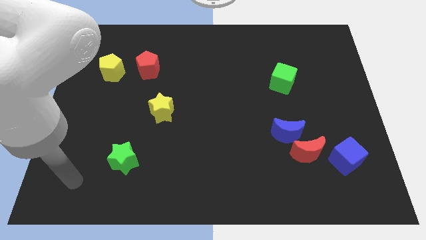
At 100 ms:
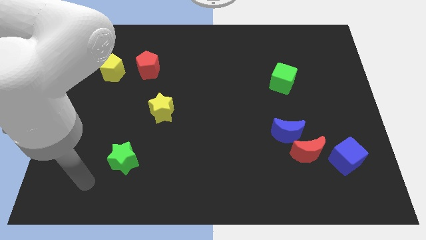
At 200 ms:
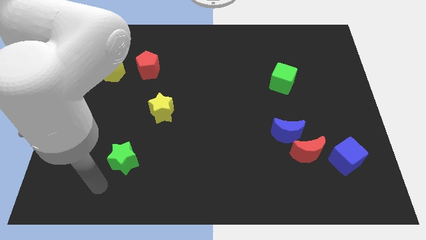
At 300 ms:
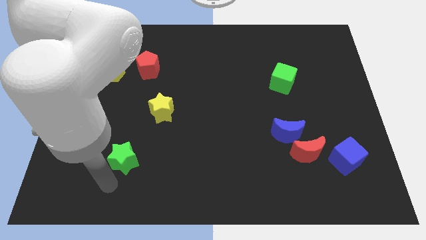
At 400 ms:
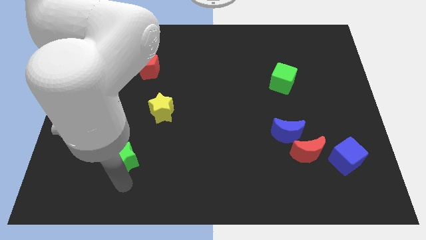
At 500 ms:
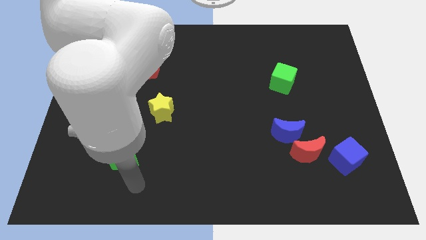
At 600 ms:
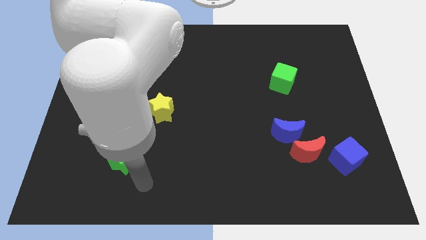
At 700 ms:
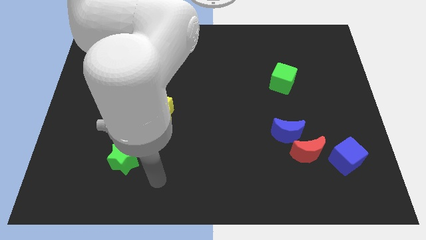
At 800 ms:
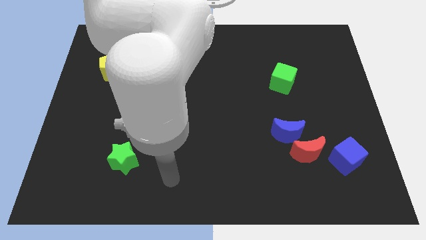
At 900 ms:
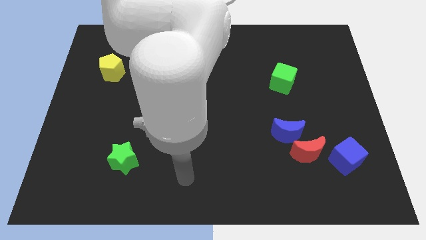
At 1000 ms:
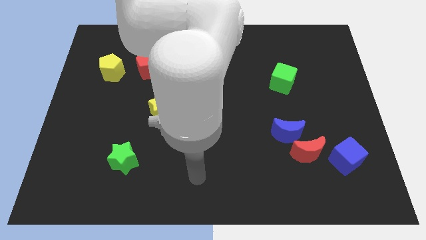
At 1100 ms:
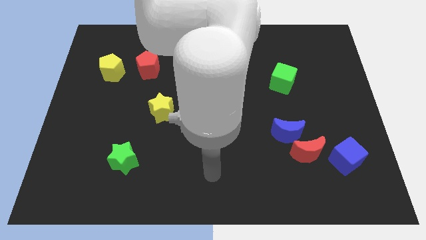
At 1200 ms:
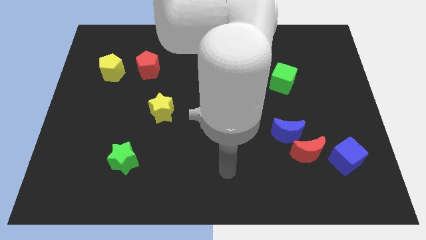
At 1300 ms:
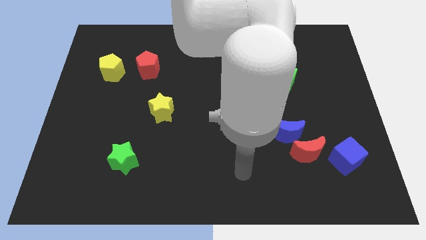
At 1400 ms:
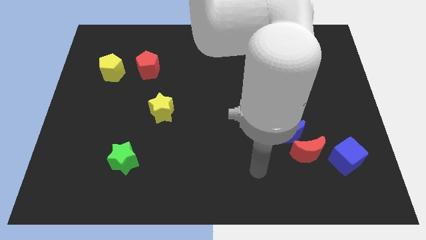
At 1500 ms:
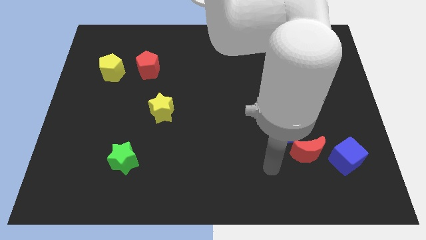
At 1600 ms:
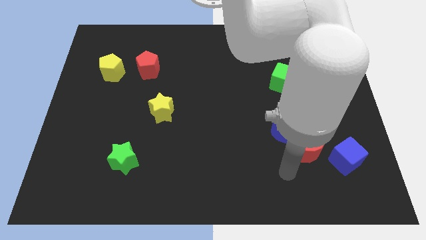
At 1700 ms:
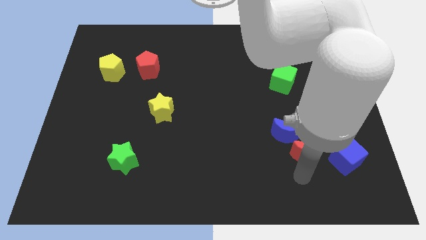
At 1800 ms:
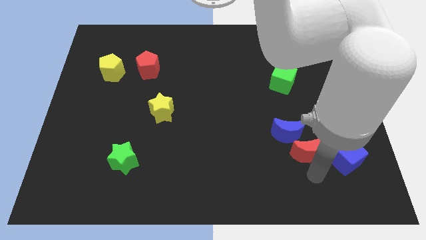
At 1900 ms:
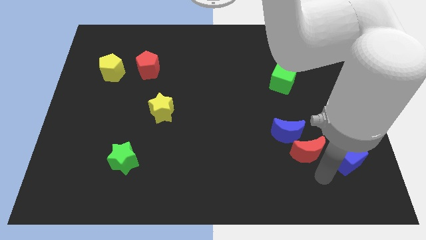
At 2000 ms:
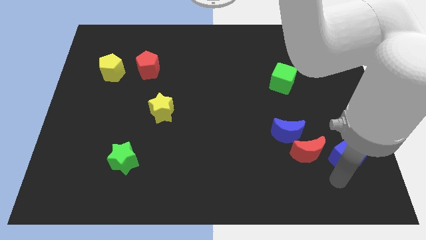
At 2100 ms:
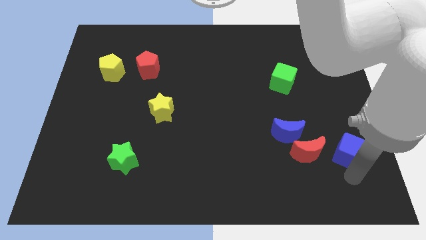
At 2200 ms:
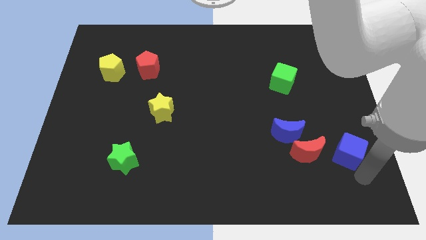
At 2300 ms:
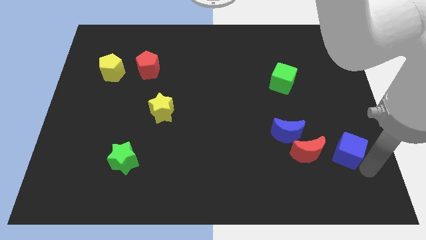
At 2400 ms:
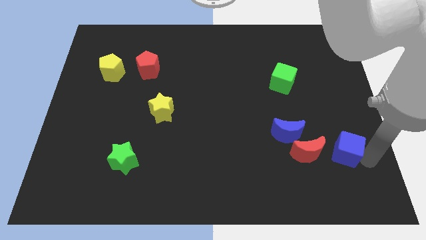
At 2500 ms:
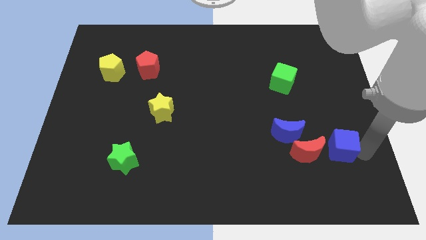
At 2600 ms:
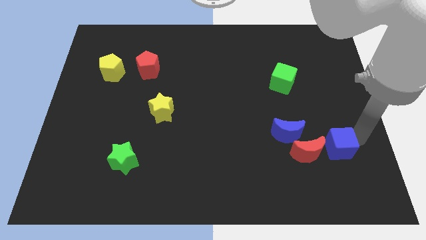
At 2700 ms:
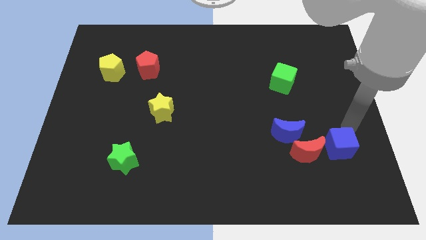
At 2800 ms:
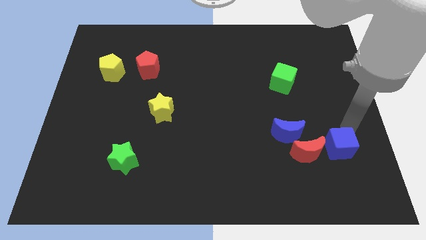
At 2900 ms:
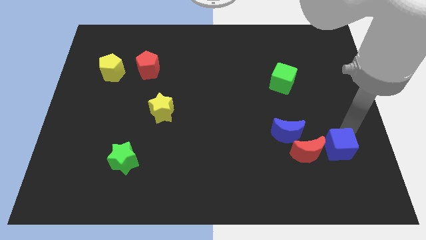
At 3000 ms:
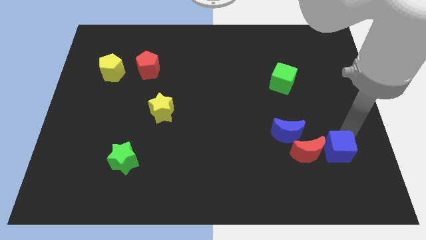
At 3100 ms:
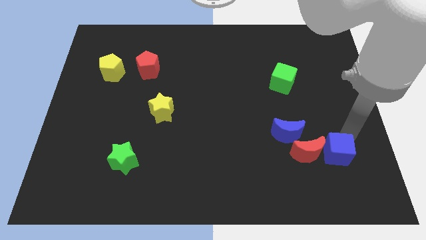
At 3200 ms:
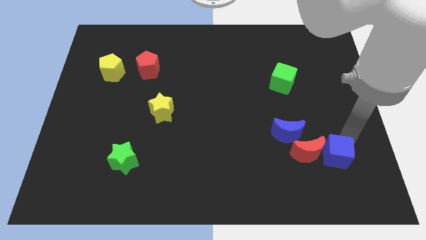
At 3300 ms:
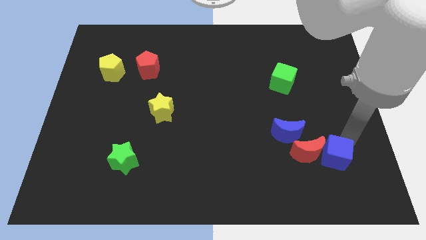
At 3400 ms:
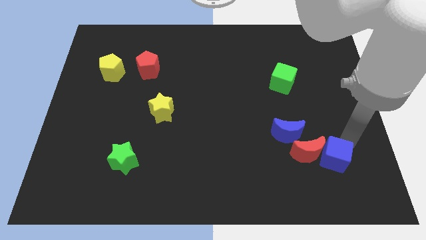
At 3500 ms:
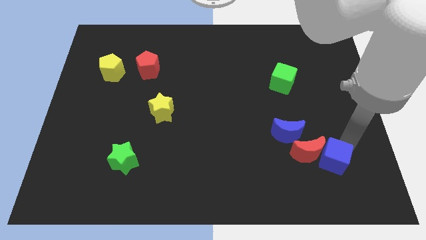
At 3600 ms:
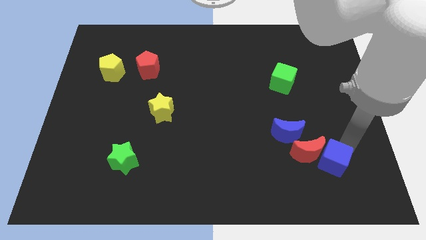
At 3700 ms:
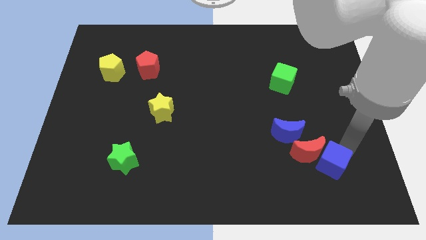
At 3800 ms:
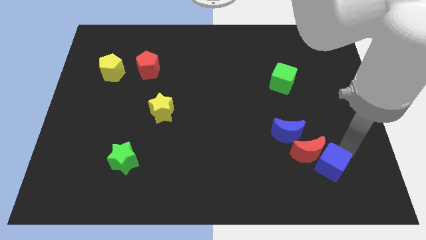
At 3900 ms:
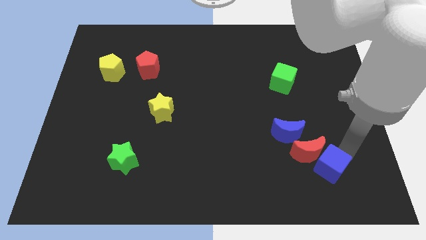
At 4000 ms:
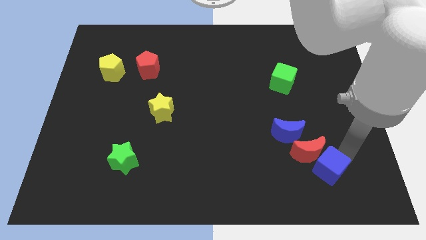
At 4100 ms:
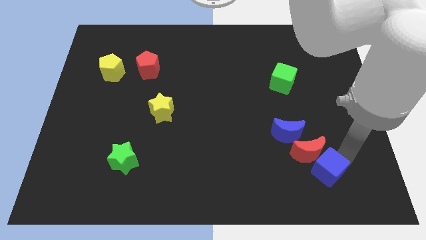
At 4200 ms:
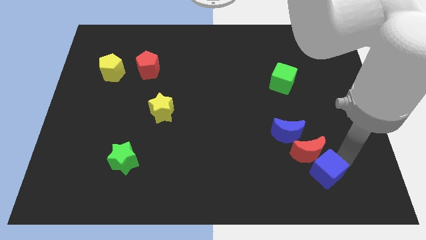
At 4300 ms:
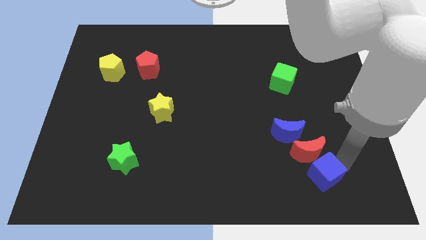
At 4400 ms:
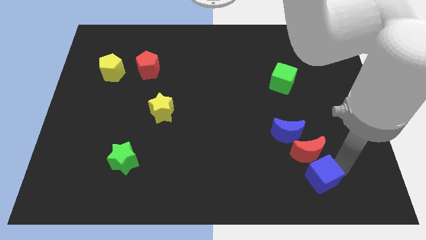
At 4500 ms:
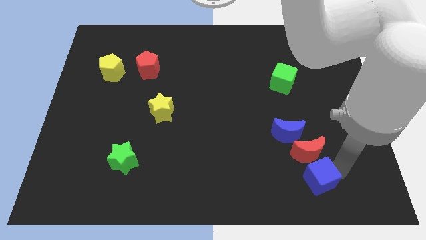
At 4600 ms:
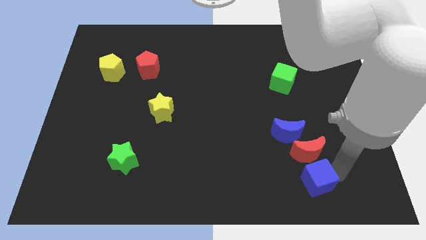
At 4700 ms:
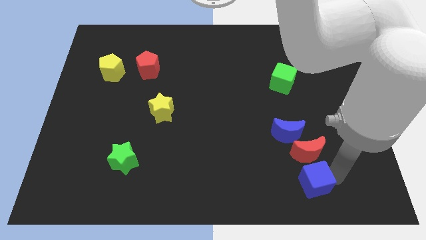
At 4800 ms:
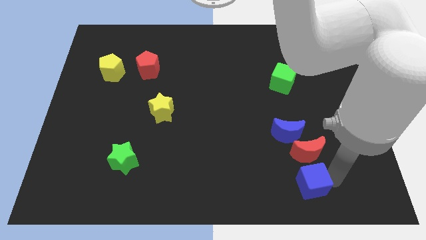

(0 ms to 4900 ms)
push the blue cube to the left a little

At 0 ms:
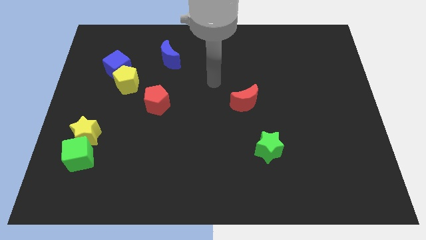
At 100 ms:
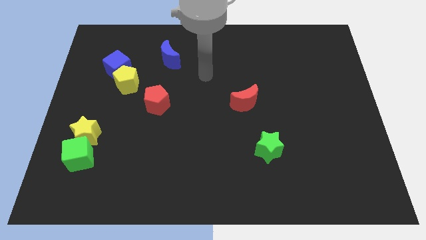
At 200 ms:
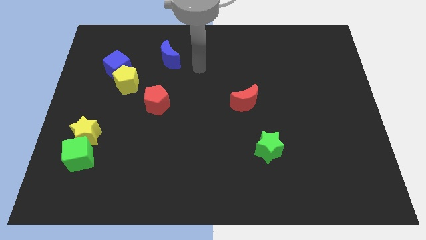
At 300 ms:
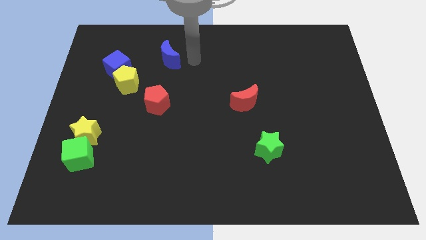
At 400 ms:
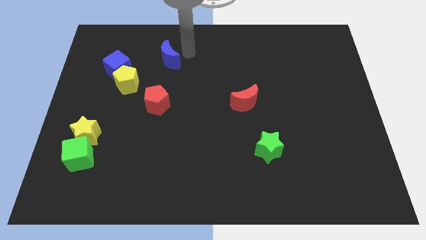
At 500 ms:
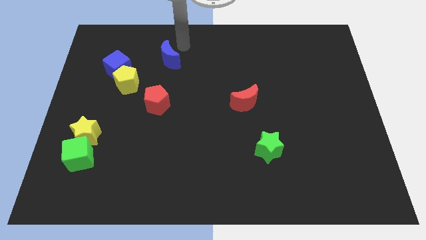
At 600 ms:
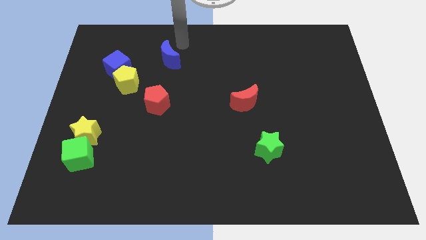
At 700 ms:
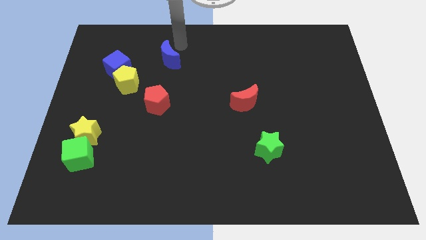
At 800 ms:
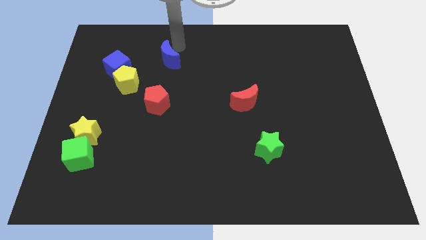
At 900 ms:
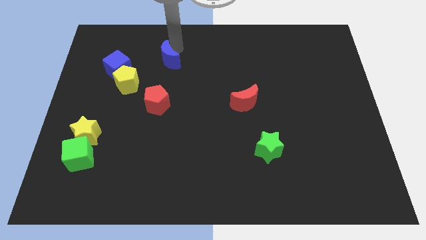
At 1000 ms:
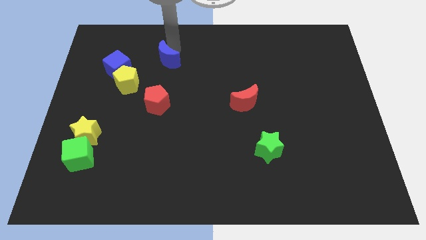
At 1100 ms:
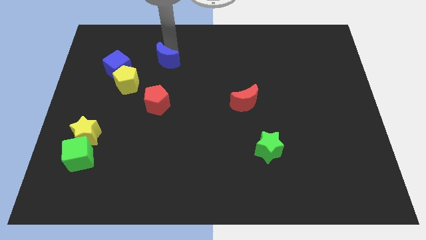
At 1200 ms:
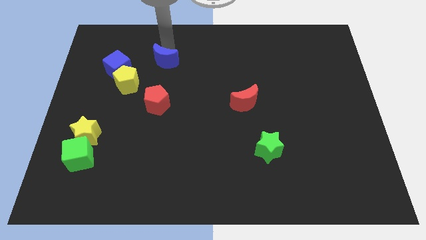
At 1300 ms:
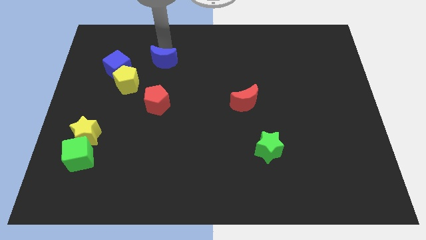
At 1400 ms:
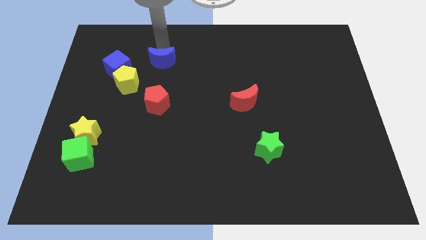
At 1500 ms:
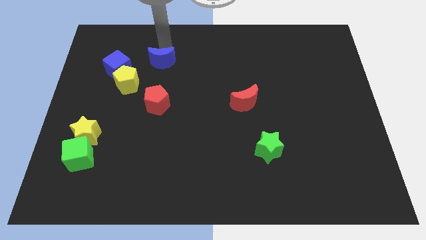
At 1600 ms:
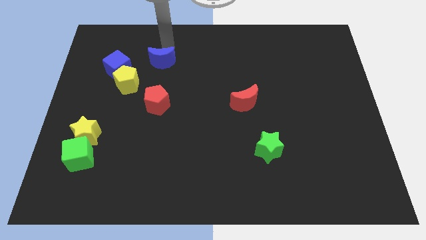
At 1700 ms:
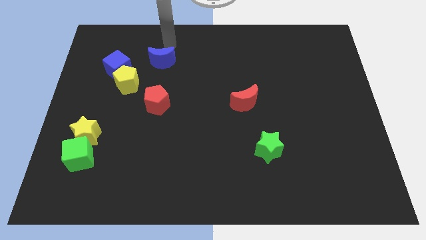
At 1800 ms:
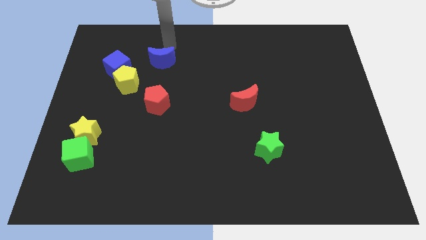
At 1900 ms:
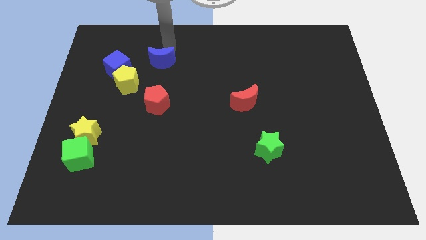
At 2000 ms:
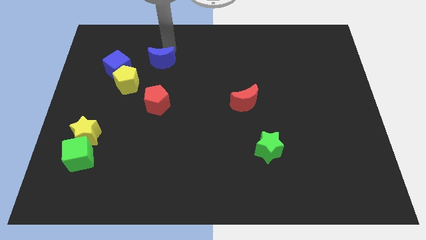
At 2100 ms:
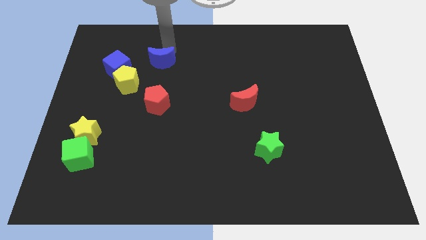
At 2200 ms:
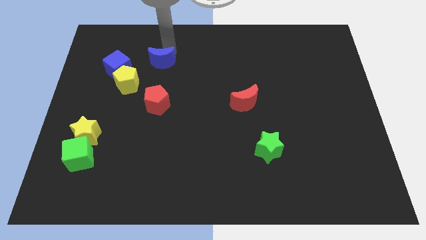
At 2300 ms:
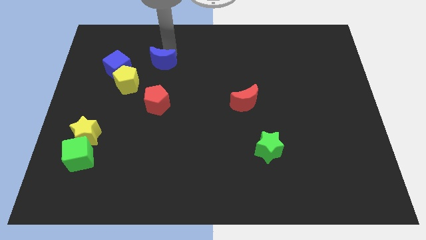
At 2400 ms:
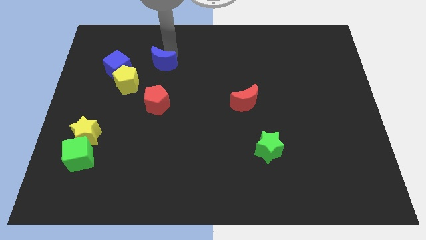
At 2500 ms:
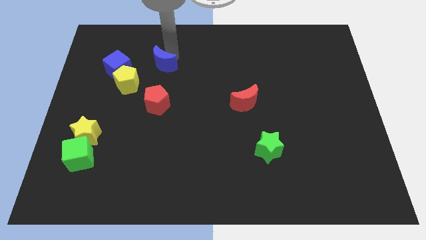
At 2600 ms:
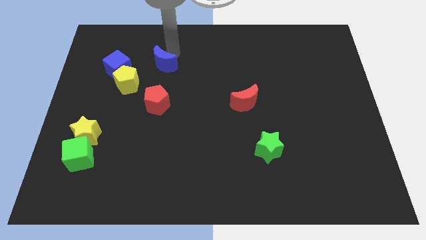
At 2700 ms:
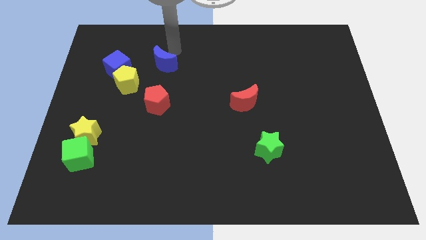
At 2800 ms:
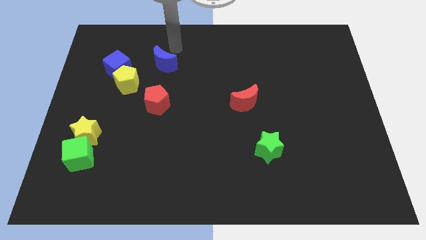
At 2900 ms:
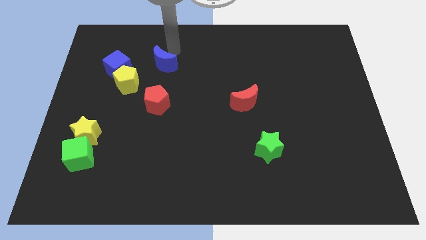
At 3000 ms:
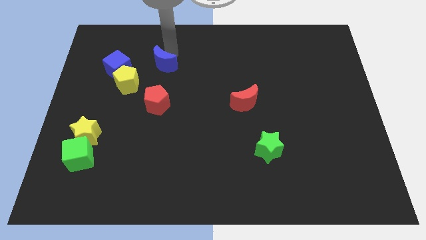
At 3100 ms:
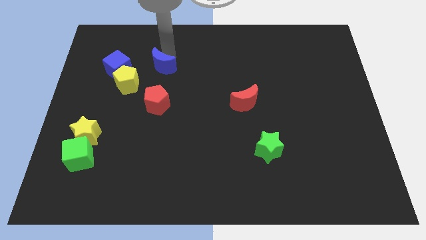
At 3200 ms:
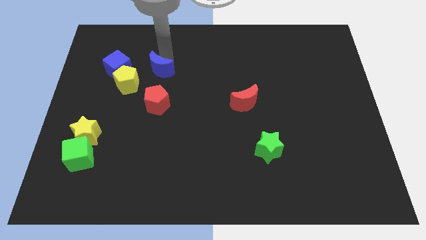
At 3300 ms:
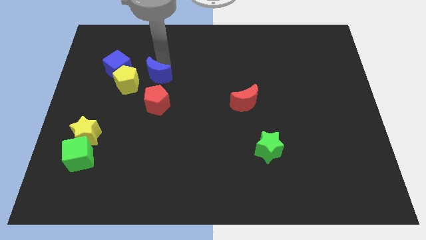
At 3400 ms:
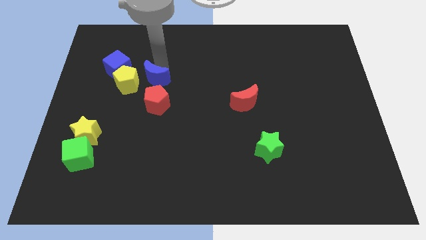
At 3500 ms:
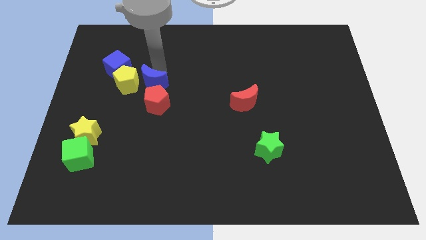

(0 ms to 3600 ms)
push the blue moon diagonally downwards and to the left a bit

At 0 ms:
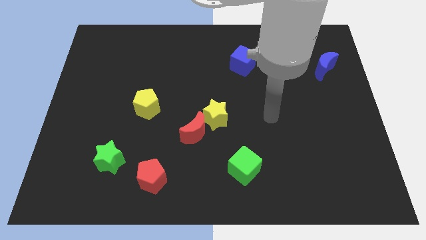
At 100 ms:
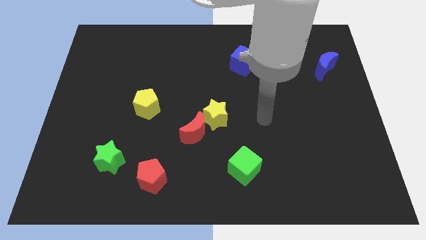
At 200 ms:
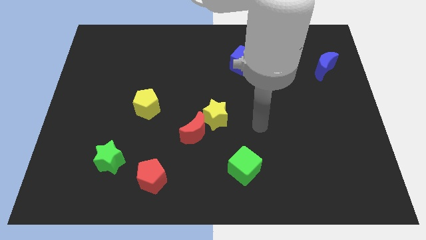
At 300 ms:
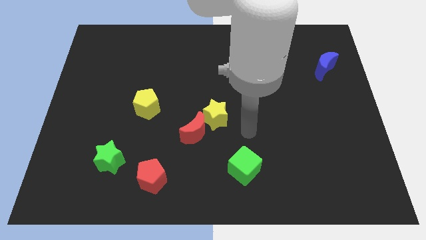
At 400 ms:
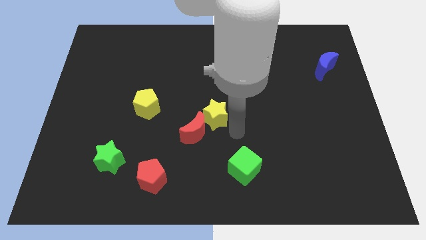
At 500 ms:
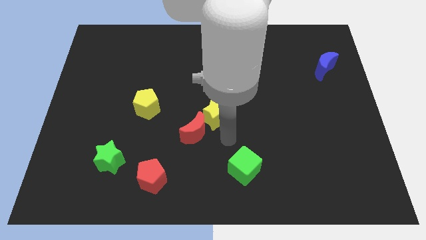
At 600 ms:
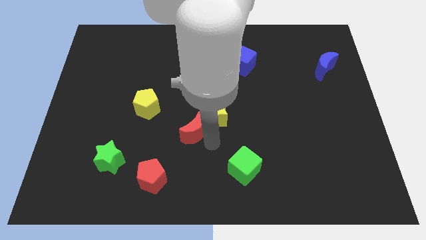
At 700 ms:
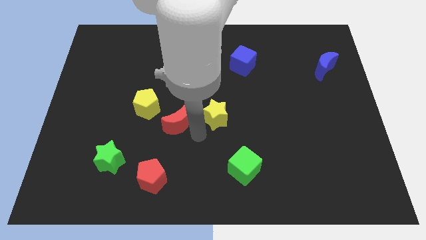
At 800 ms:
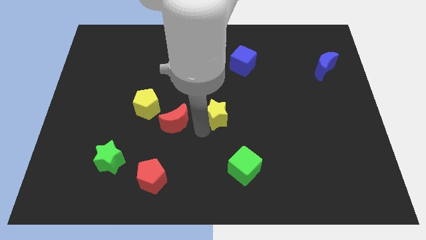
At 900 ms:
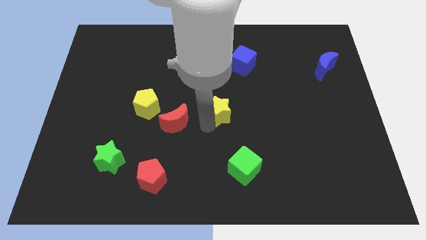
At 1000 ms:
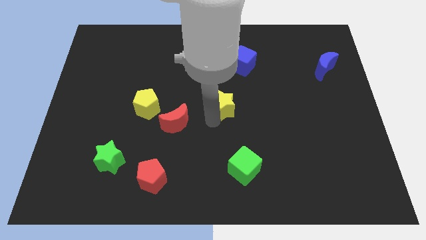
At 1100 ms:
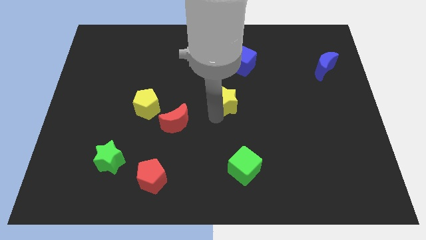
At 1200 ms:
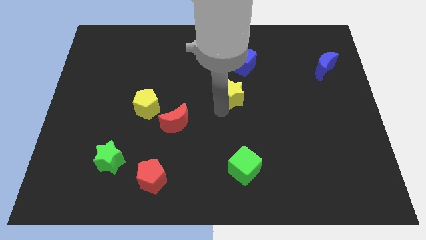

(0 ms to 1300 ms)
move the yellow star up and then to the right a little
